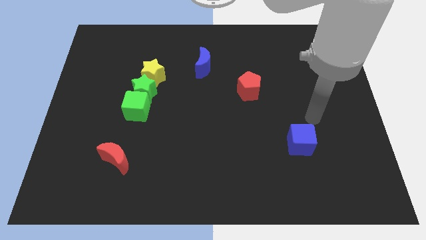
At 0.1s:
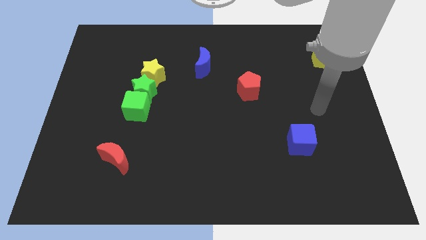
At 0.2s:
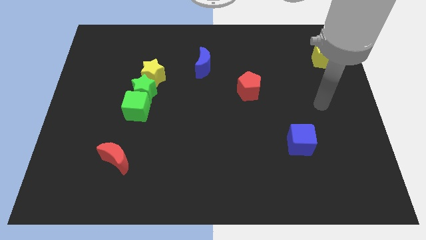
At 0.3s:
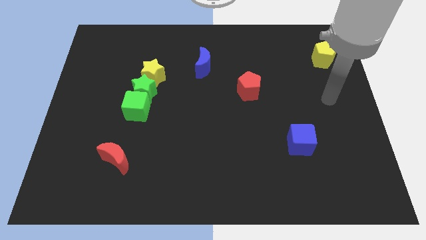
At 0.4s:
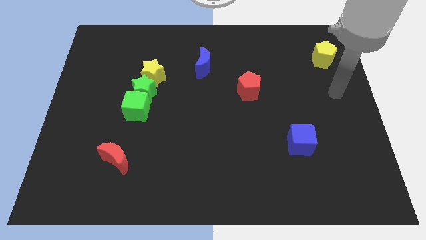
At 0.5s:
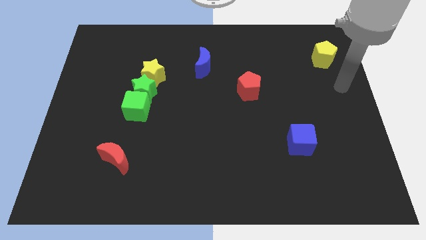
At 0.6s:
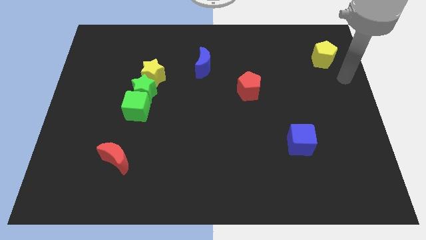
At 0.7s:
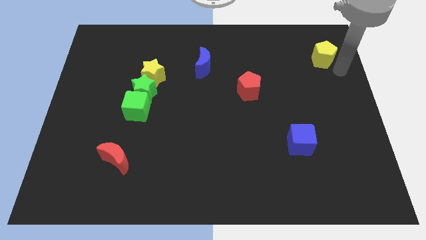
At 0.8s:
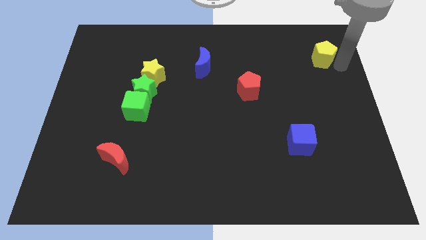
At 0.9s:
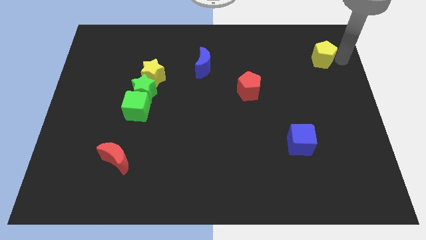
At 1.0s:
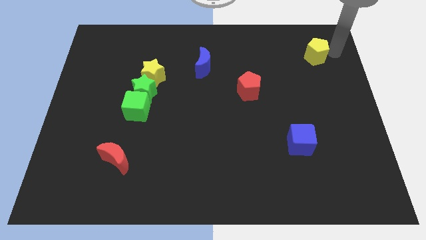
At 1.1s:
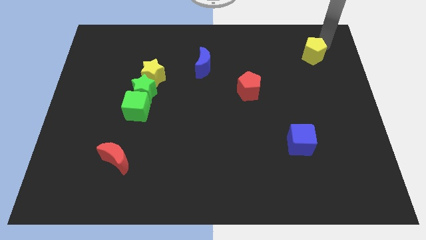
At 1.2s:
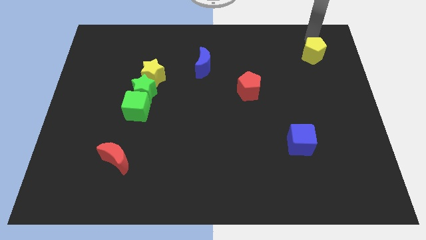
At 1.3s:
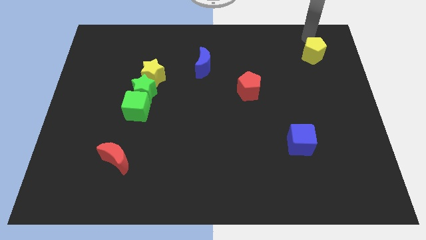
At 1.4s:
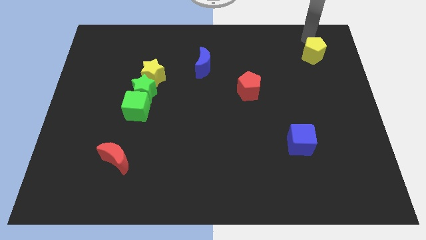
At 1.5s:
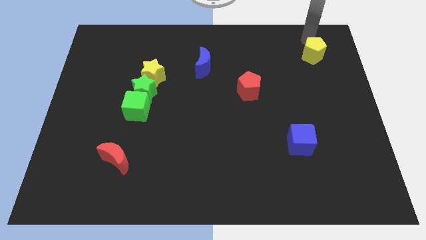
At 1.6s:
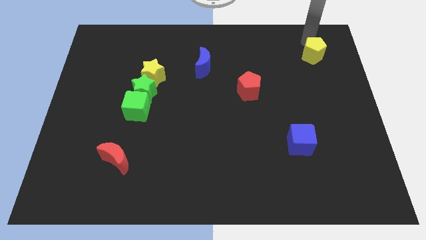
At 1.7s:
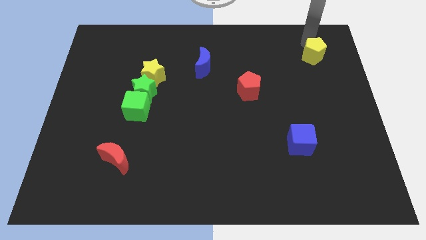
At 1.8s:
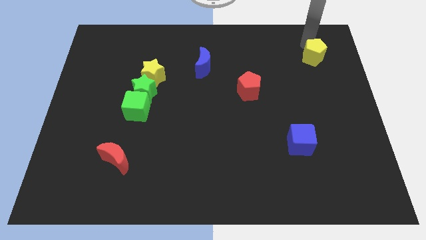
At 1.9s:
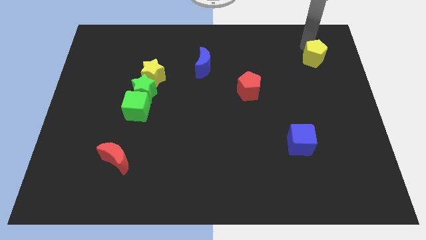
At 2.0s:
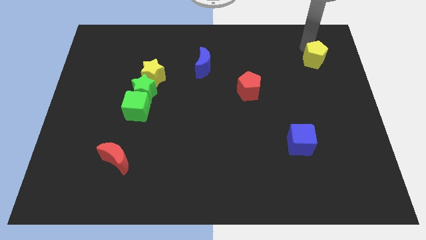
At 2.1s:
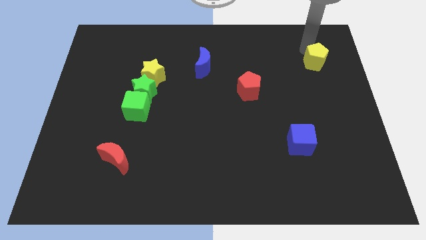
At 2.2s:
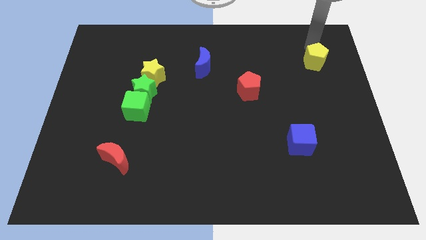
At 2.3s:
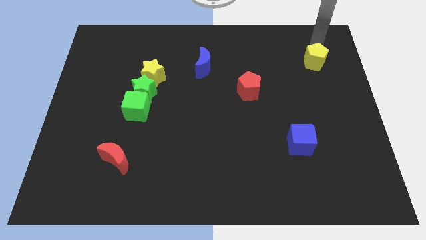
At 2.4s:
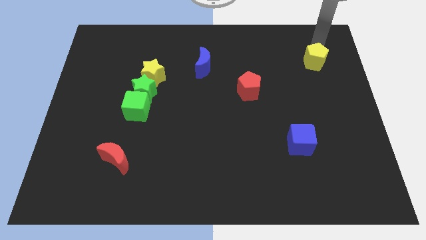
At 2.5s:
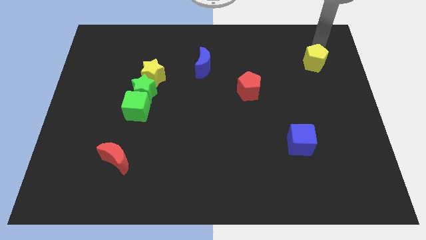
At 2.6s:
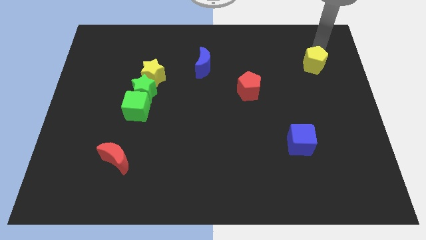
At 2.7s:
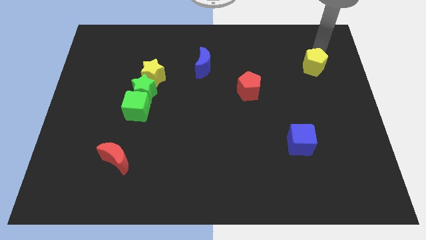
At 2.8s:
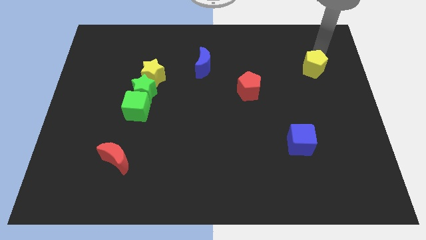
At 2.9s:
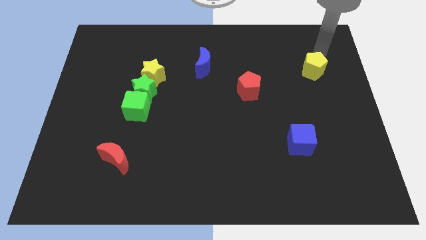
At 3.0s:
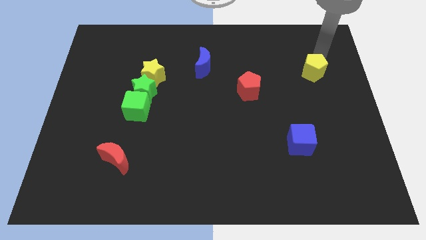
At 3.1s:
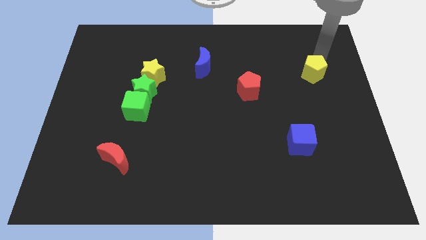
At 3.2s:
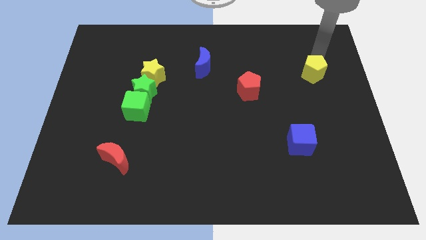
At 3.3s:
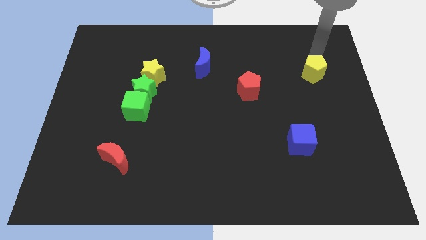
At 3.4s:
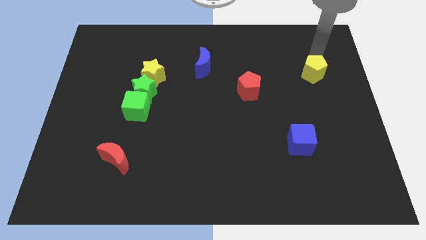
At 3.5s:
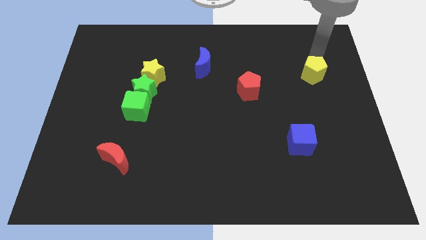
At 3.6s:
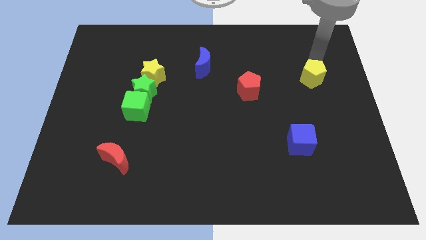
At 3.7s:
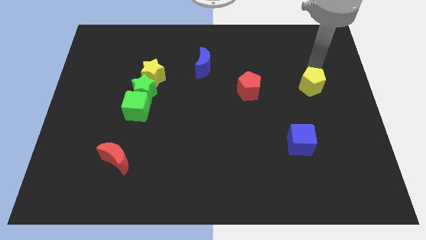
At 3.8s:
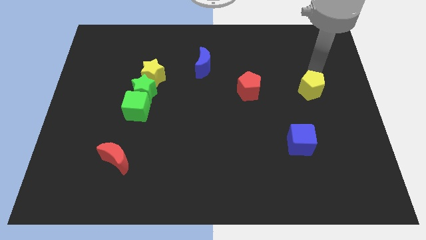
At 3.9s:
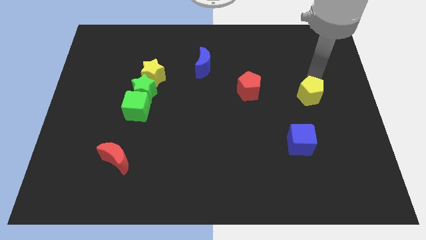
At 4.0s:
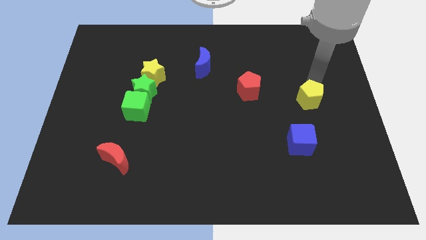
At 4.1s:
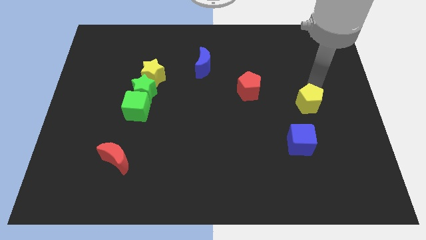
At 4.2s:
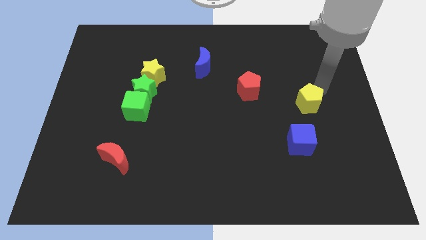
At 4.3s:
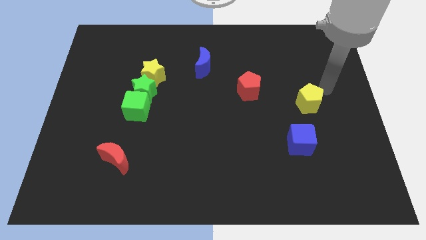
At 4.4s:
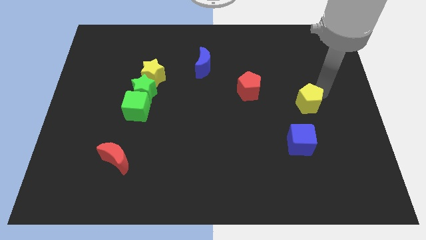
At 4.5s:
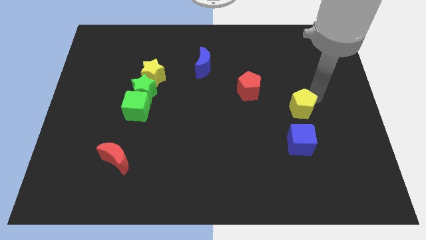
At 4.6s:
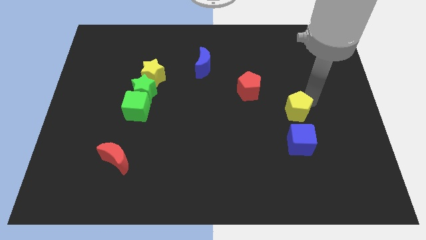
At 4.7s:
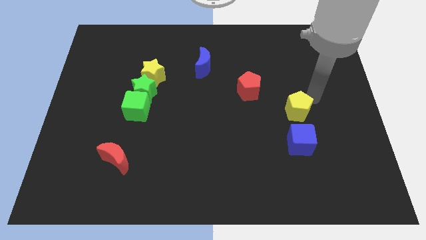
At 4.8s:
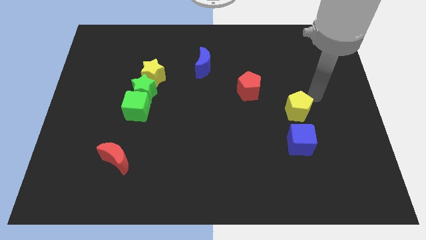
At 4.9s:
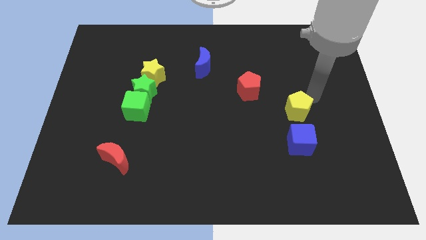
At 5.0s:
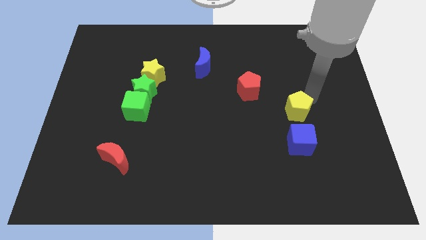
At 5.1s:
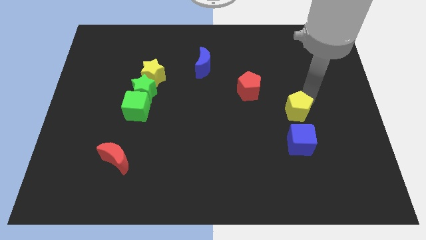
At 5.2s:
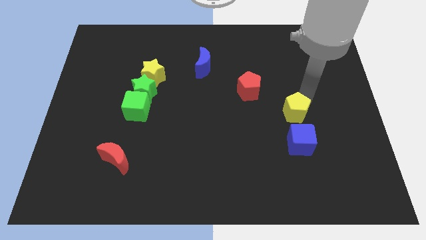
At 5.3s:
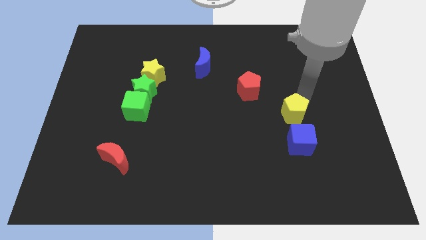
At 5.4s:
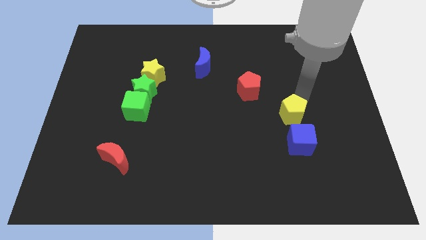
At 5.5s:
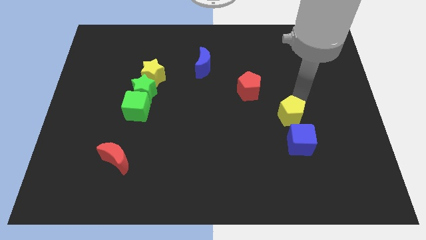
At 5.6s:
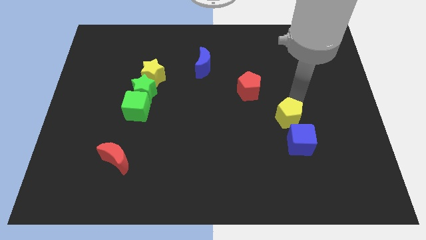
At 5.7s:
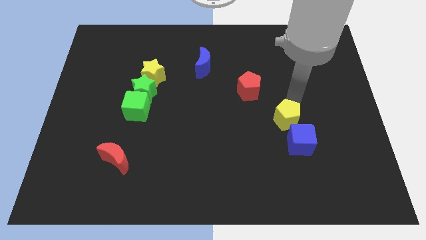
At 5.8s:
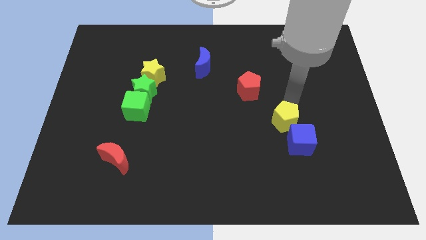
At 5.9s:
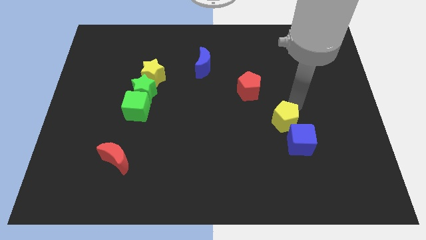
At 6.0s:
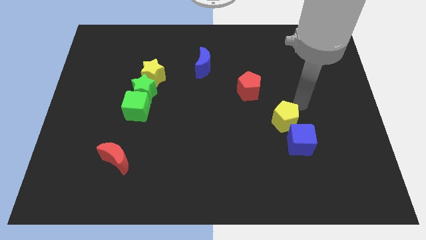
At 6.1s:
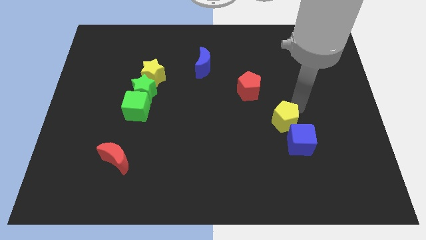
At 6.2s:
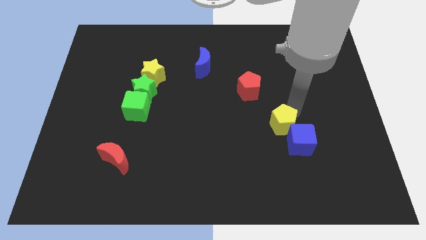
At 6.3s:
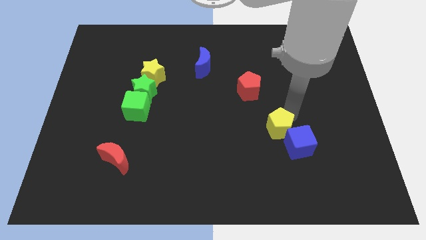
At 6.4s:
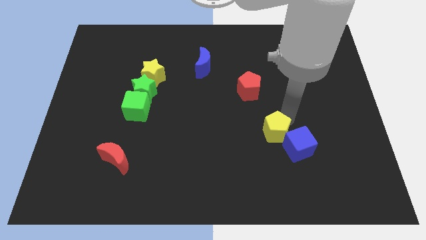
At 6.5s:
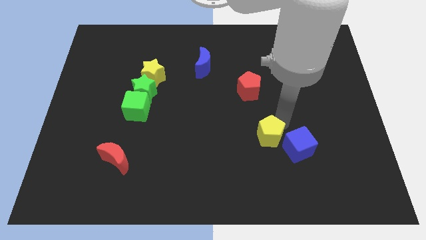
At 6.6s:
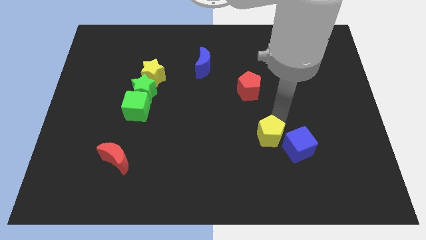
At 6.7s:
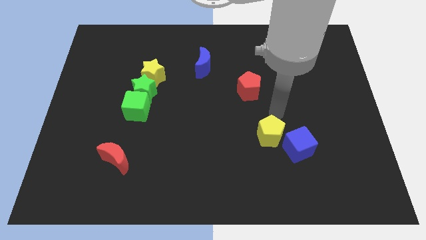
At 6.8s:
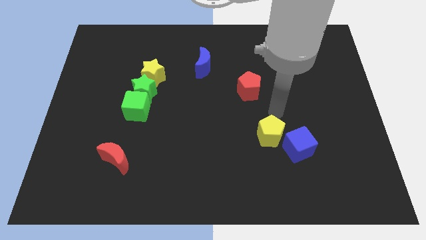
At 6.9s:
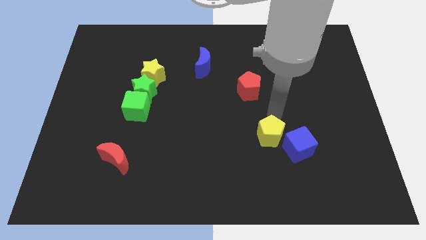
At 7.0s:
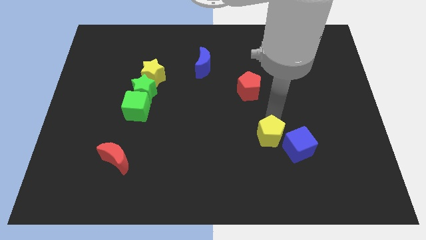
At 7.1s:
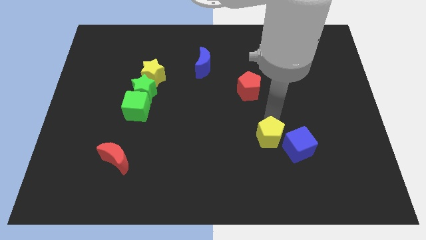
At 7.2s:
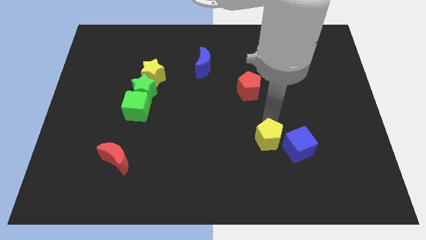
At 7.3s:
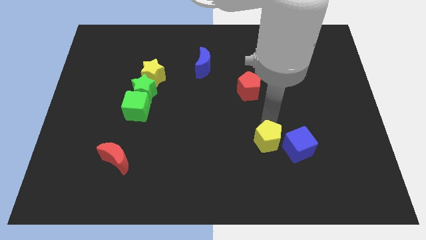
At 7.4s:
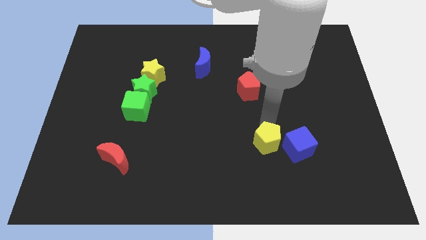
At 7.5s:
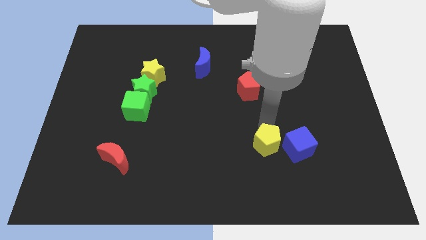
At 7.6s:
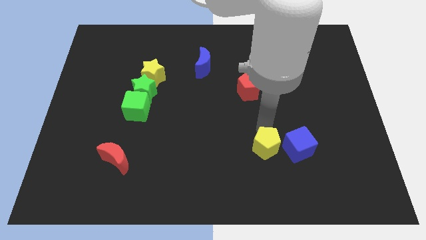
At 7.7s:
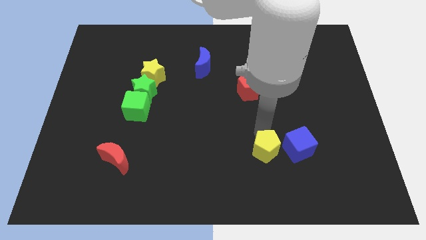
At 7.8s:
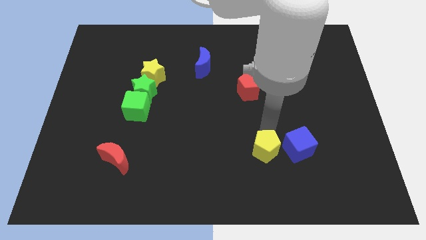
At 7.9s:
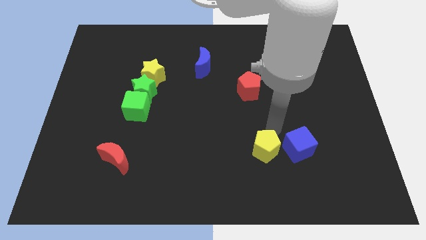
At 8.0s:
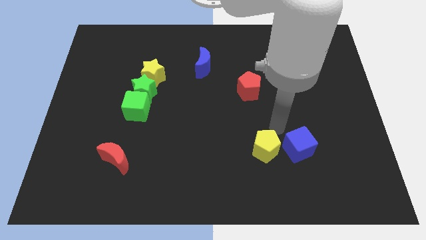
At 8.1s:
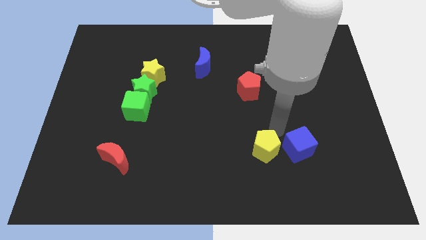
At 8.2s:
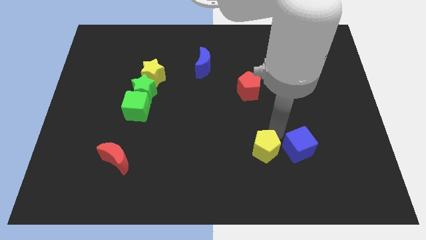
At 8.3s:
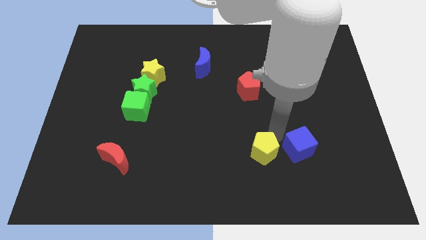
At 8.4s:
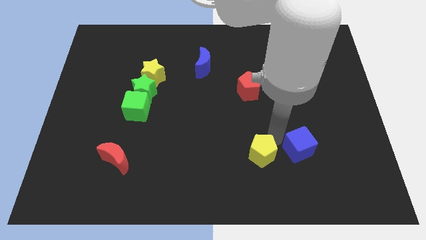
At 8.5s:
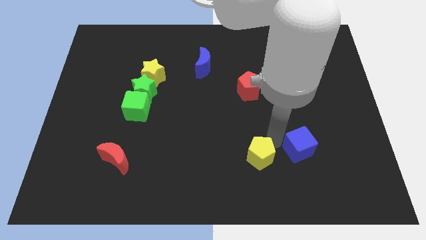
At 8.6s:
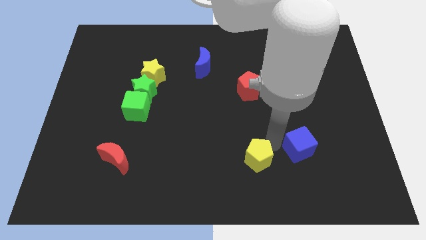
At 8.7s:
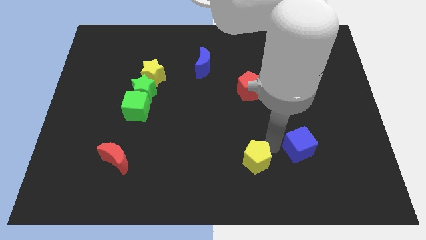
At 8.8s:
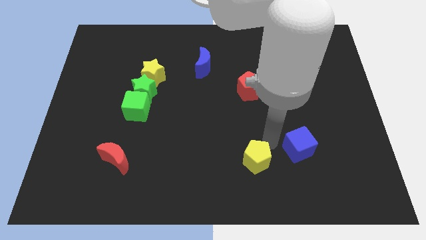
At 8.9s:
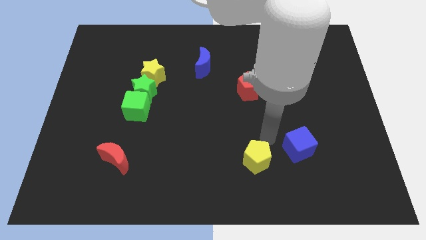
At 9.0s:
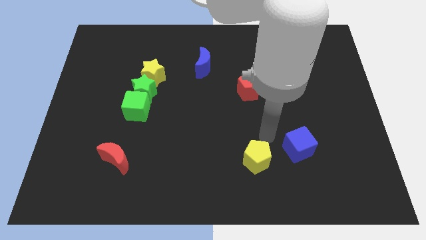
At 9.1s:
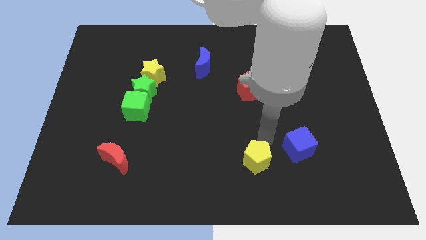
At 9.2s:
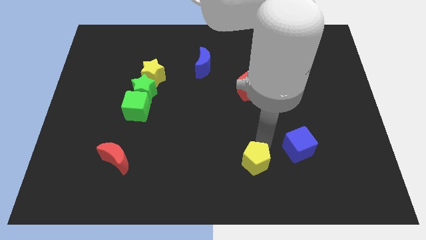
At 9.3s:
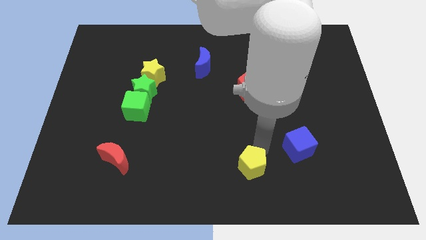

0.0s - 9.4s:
move the yellow pentagon to the bottom
